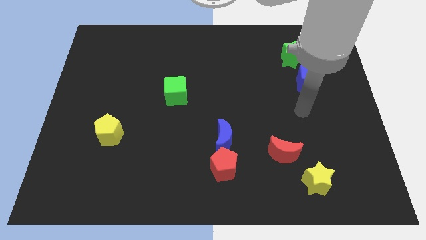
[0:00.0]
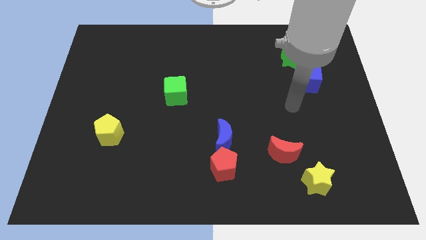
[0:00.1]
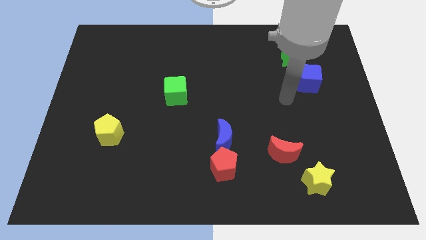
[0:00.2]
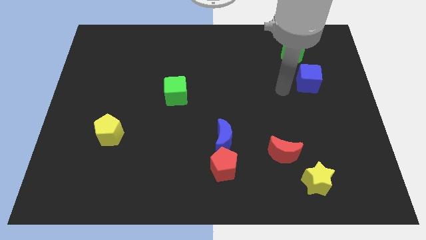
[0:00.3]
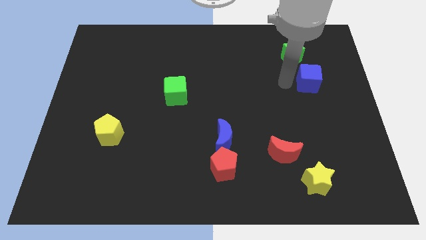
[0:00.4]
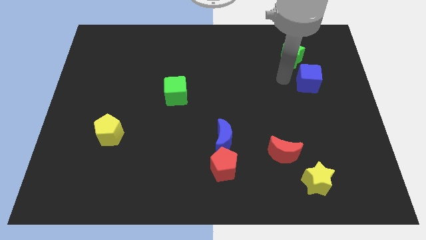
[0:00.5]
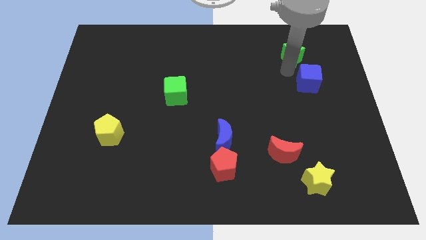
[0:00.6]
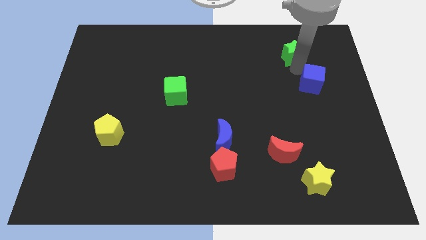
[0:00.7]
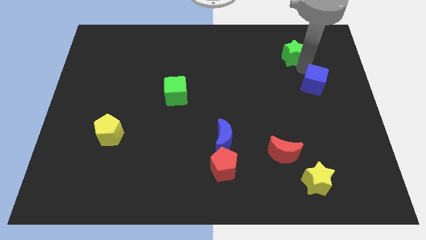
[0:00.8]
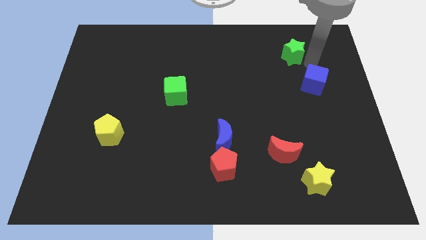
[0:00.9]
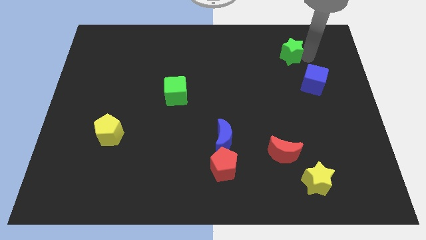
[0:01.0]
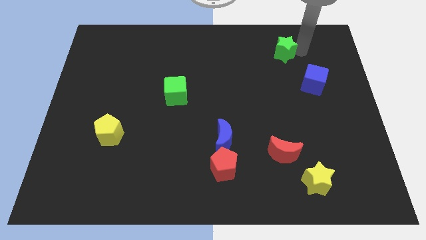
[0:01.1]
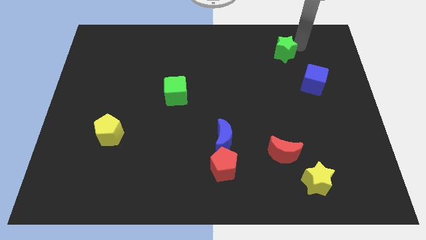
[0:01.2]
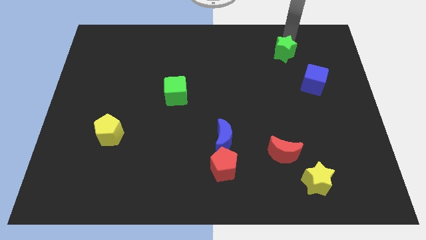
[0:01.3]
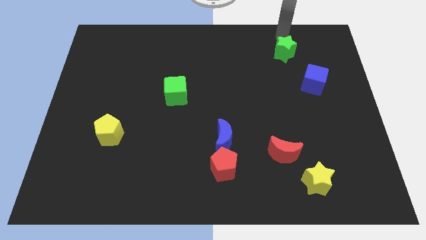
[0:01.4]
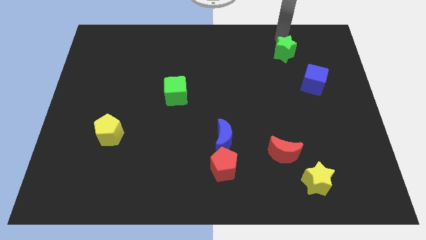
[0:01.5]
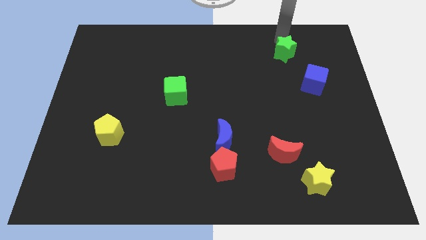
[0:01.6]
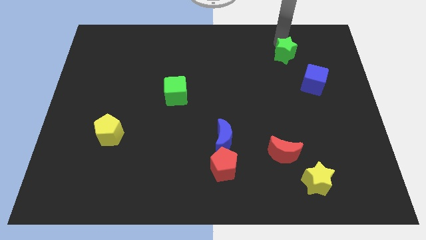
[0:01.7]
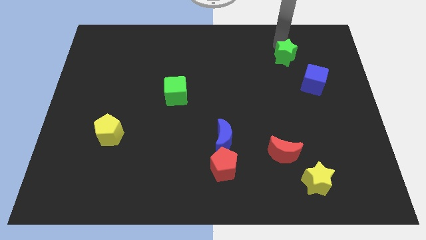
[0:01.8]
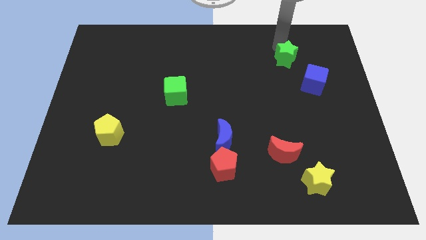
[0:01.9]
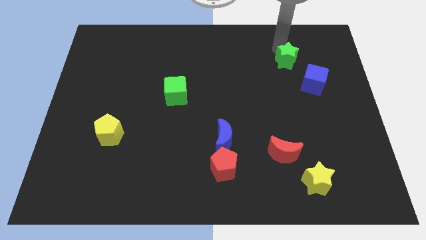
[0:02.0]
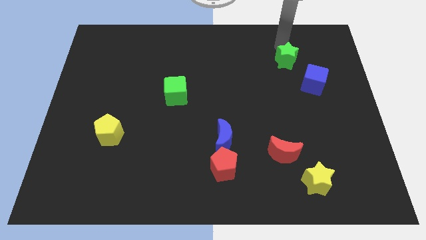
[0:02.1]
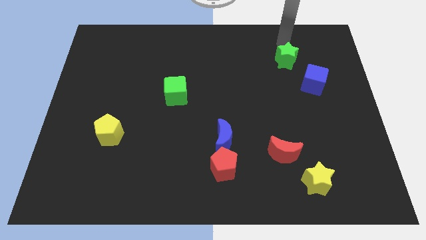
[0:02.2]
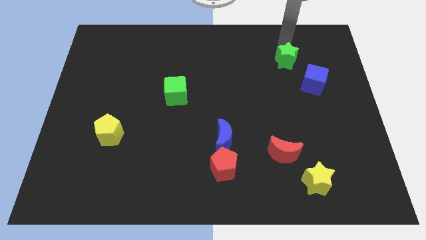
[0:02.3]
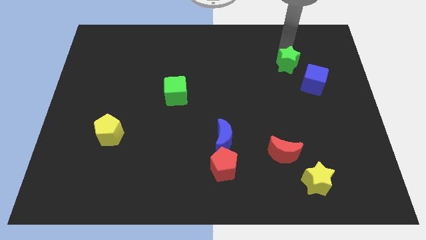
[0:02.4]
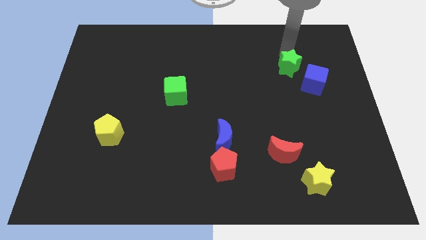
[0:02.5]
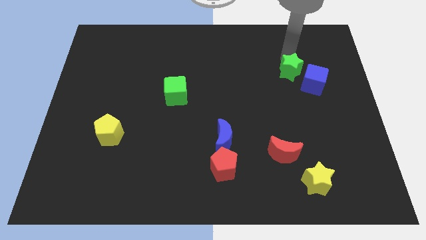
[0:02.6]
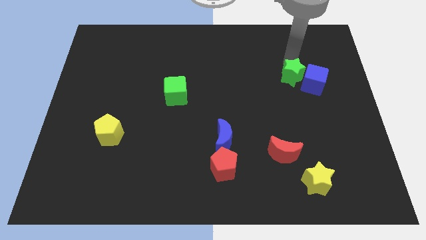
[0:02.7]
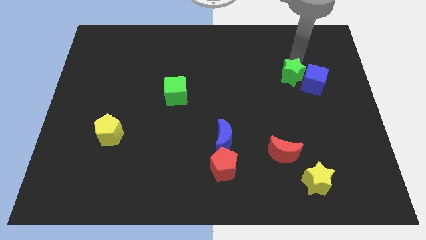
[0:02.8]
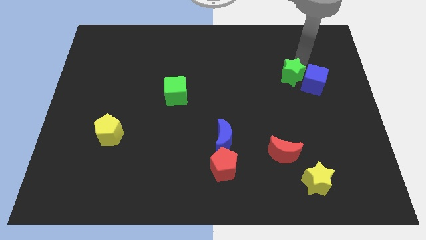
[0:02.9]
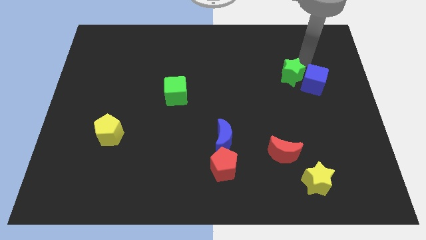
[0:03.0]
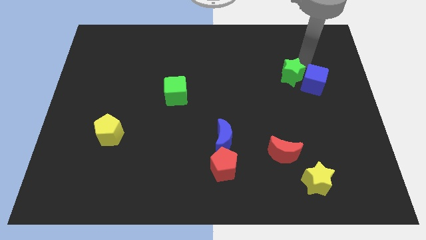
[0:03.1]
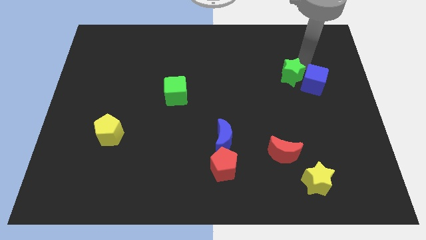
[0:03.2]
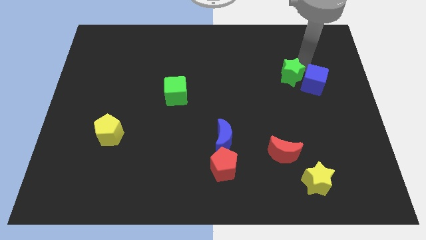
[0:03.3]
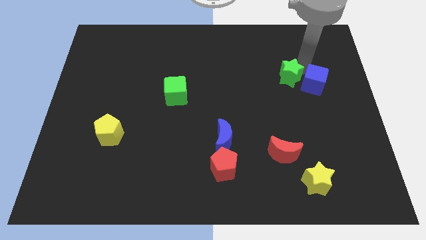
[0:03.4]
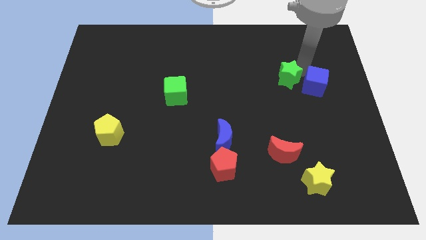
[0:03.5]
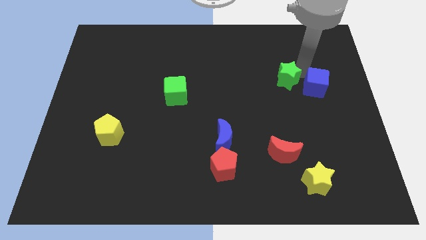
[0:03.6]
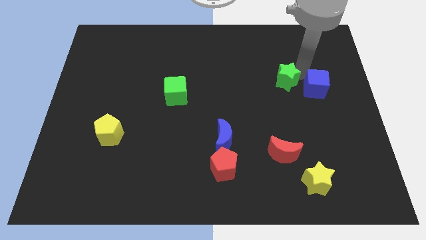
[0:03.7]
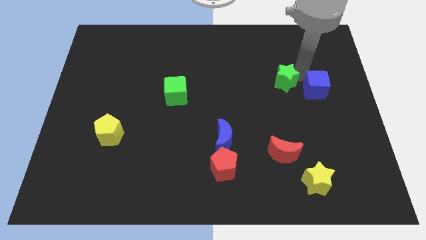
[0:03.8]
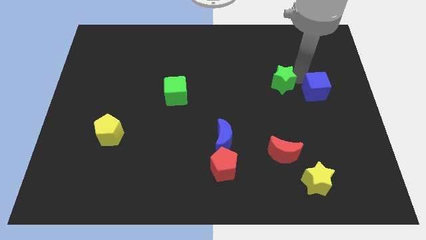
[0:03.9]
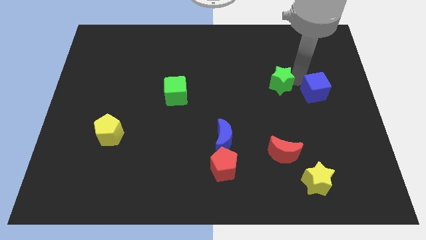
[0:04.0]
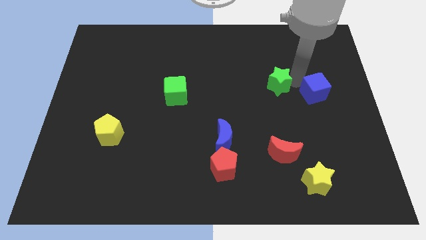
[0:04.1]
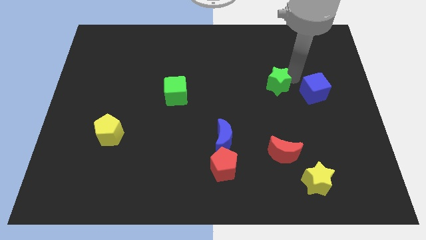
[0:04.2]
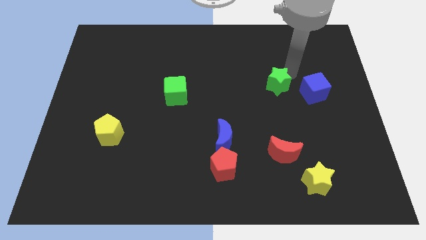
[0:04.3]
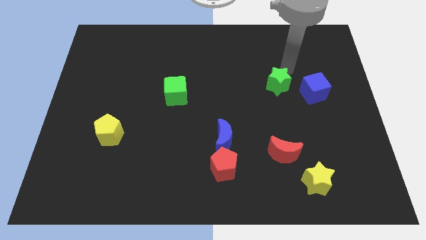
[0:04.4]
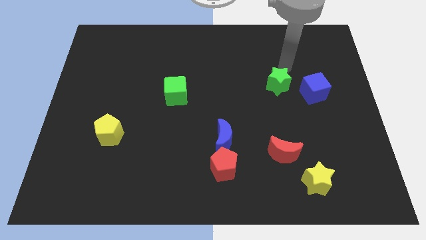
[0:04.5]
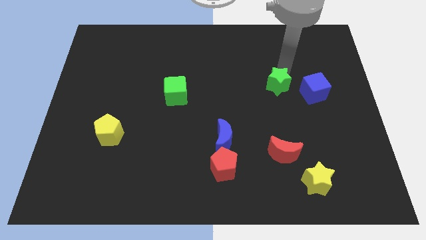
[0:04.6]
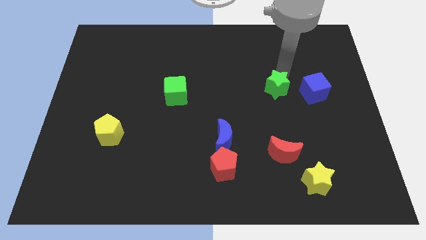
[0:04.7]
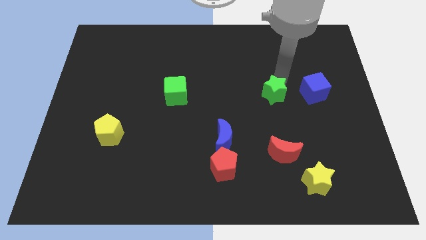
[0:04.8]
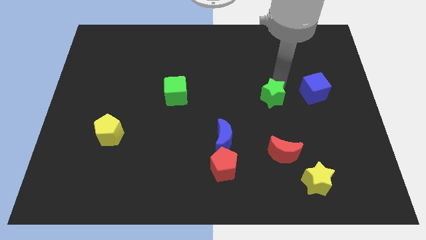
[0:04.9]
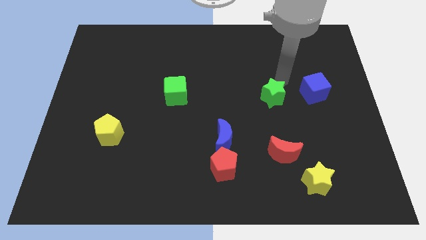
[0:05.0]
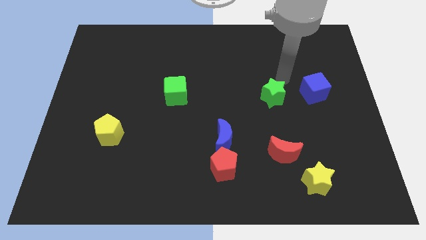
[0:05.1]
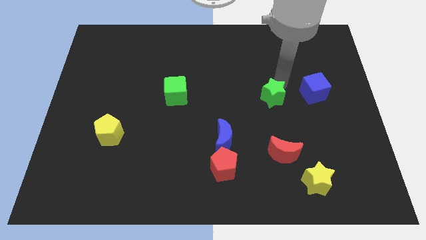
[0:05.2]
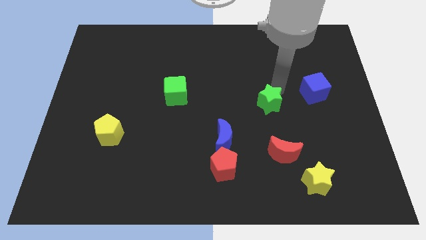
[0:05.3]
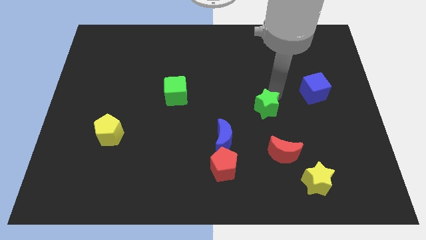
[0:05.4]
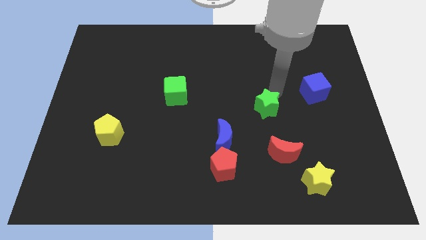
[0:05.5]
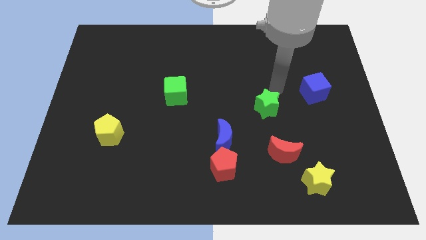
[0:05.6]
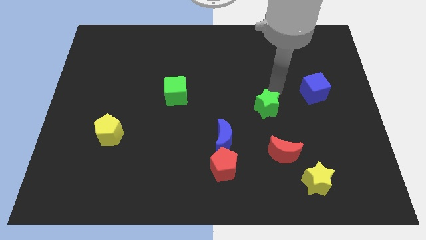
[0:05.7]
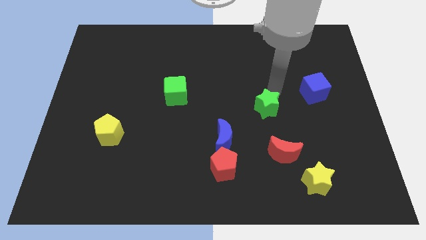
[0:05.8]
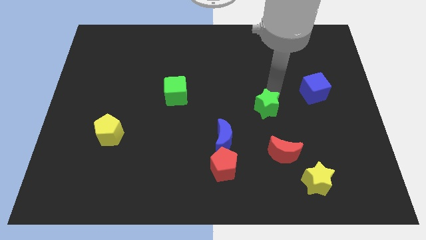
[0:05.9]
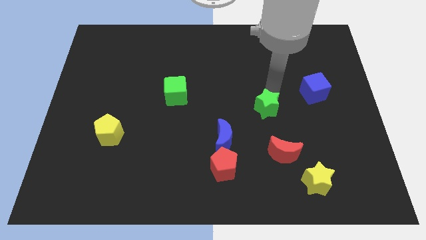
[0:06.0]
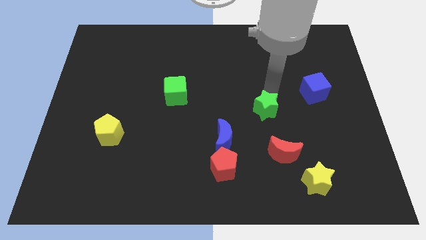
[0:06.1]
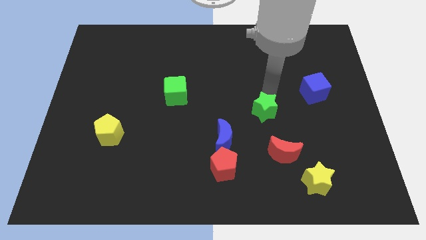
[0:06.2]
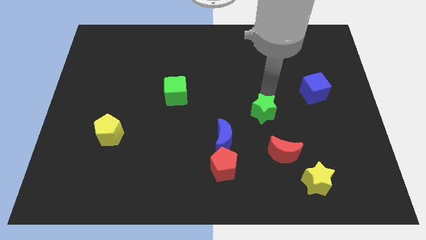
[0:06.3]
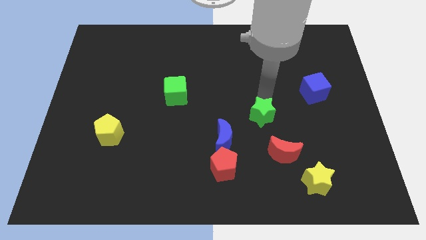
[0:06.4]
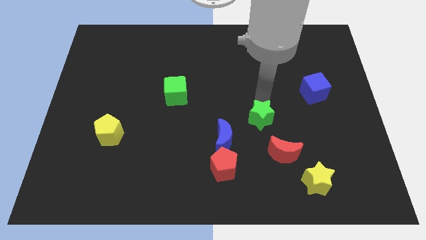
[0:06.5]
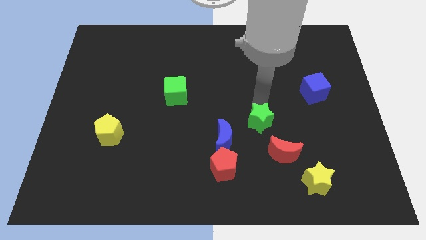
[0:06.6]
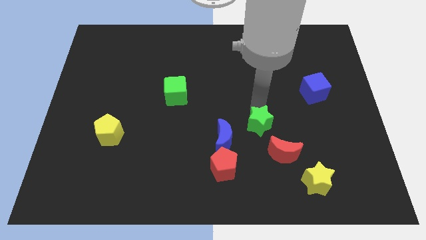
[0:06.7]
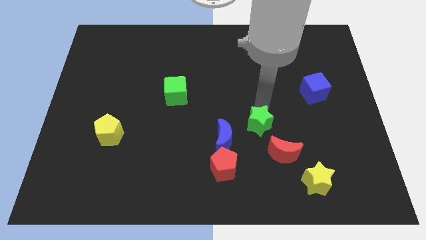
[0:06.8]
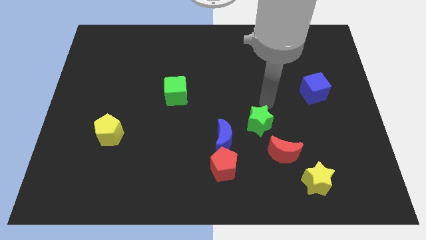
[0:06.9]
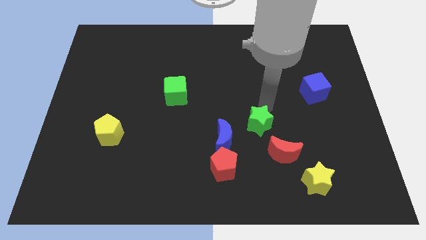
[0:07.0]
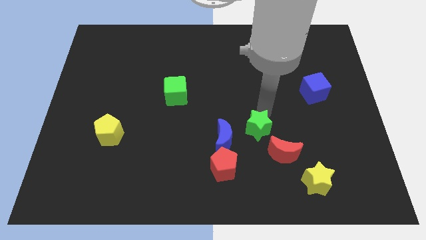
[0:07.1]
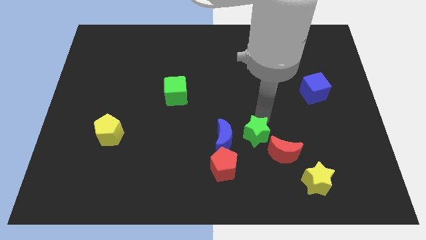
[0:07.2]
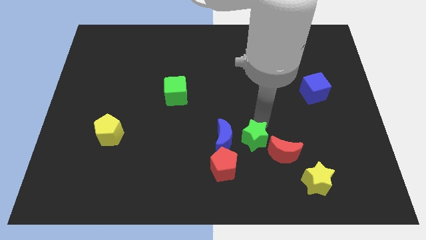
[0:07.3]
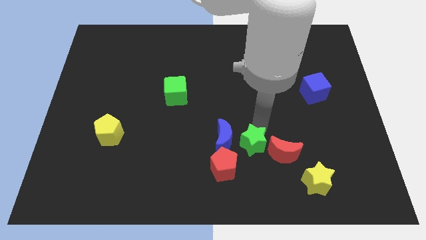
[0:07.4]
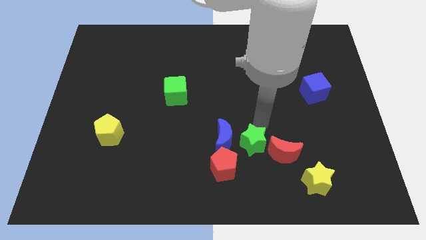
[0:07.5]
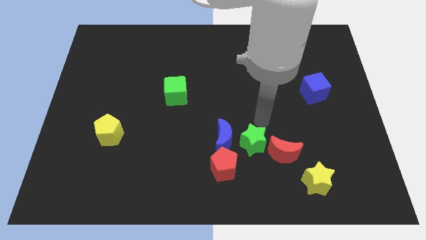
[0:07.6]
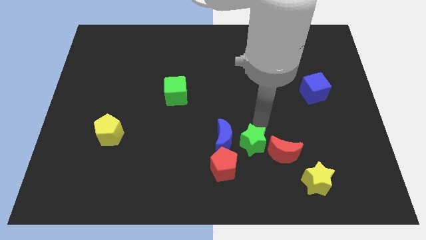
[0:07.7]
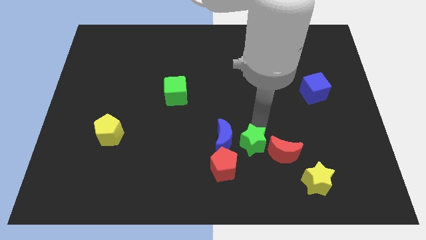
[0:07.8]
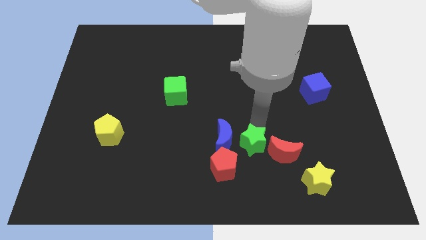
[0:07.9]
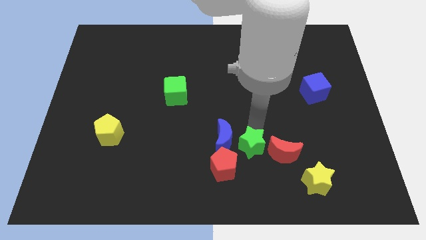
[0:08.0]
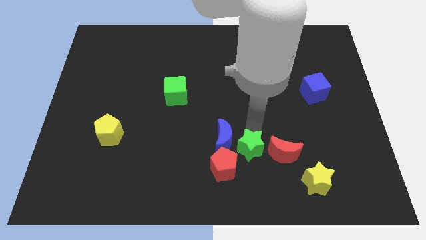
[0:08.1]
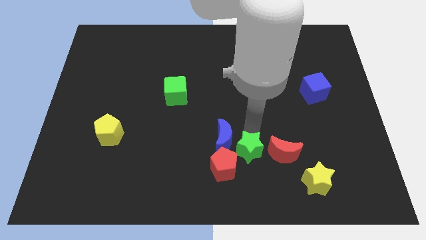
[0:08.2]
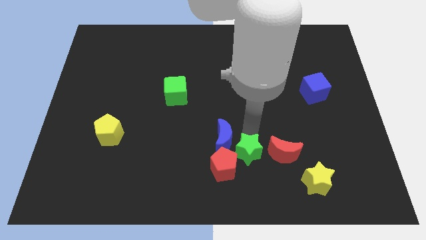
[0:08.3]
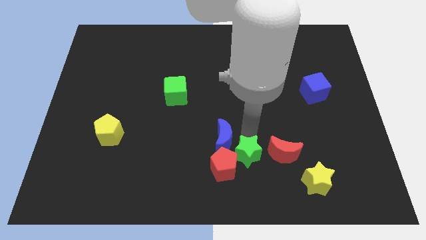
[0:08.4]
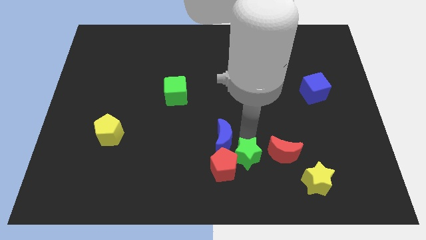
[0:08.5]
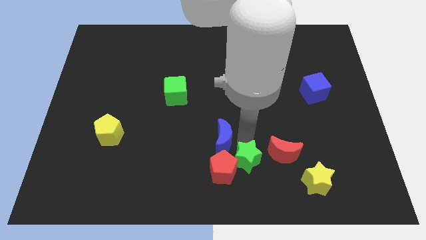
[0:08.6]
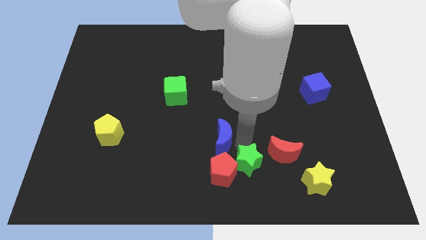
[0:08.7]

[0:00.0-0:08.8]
slide the green star to the bottom
